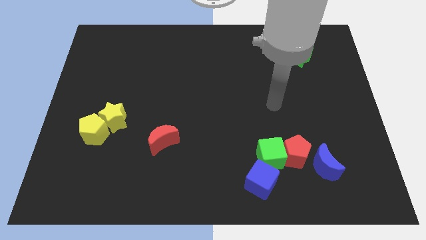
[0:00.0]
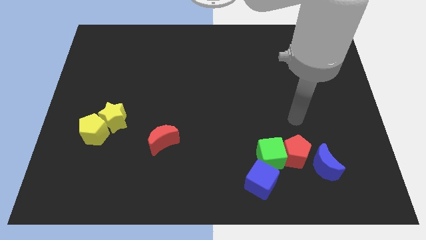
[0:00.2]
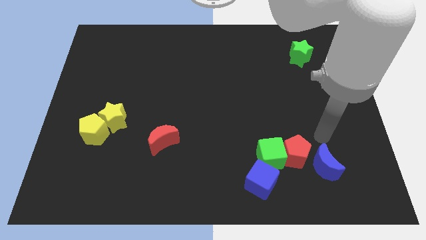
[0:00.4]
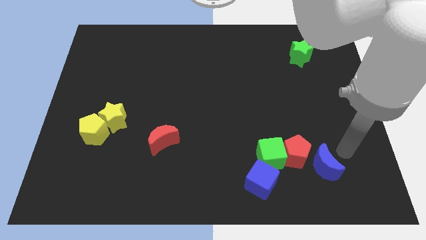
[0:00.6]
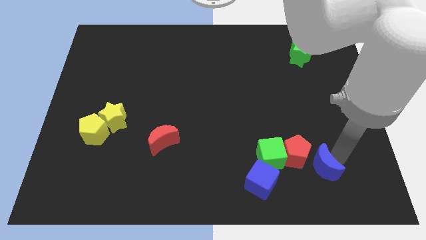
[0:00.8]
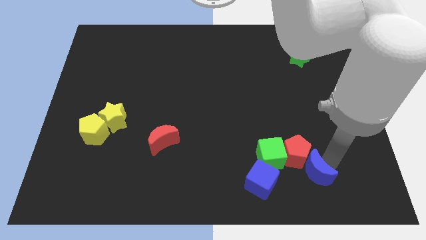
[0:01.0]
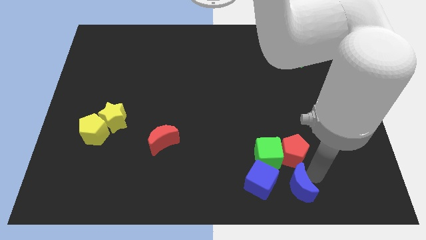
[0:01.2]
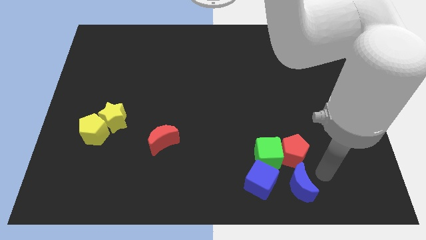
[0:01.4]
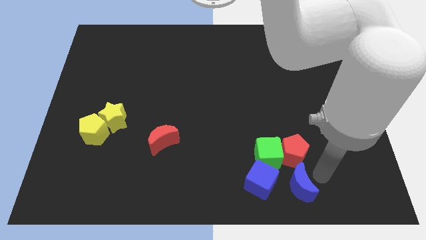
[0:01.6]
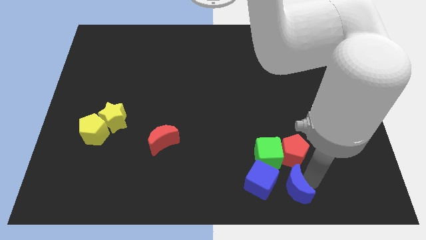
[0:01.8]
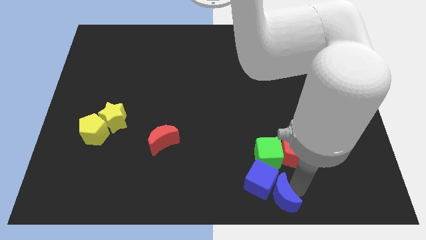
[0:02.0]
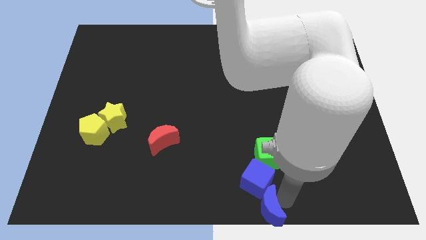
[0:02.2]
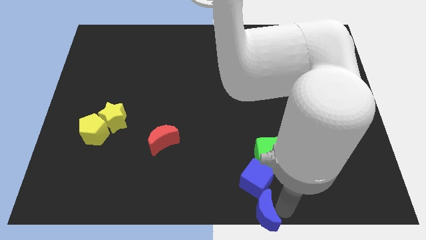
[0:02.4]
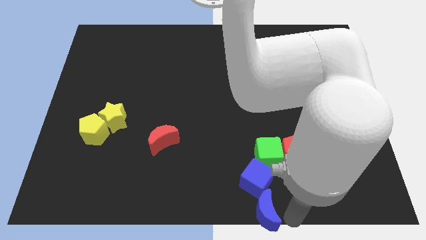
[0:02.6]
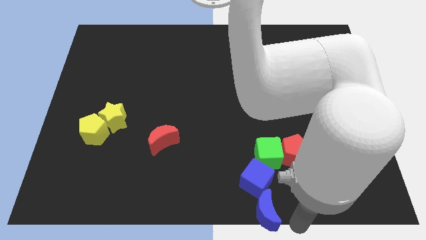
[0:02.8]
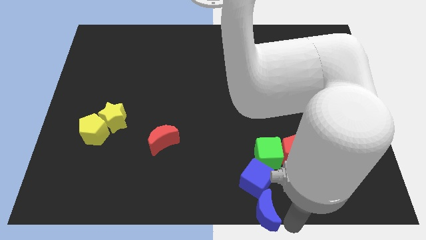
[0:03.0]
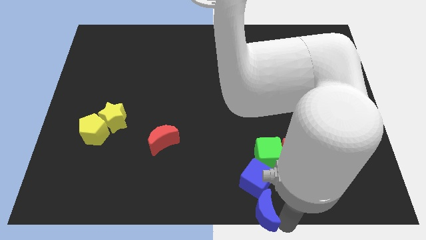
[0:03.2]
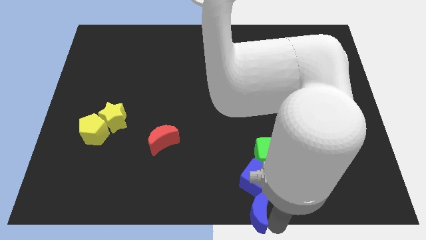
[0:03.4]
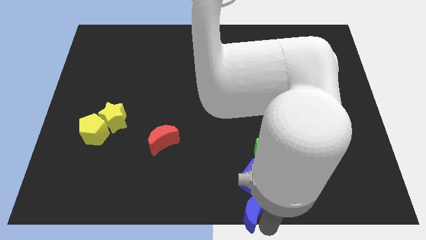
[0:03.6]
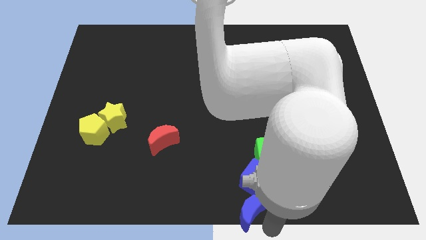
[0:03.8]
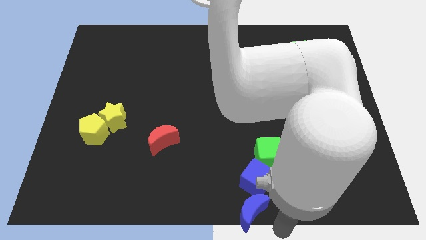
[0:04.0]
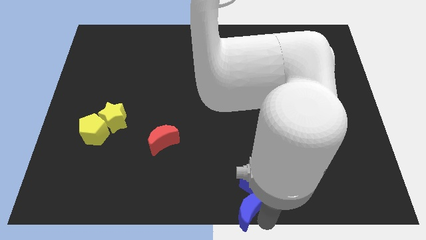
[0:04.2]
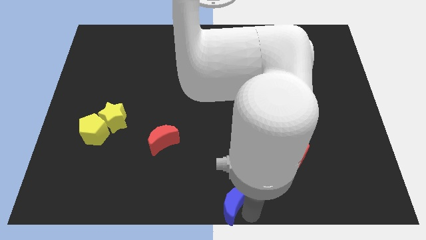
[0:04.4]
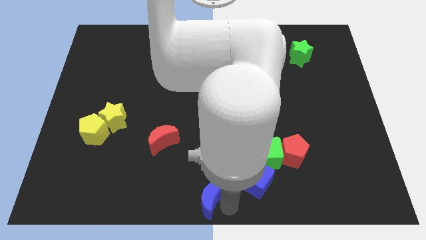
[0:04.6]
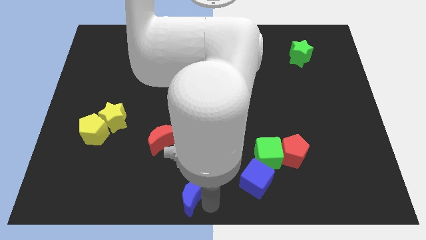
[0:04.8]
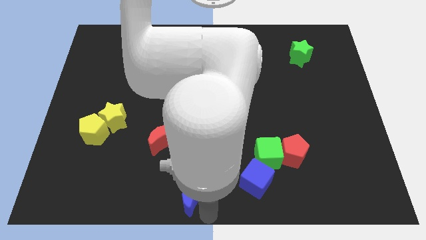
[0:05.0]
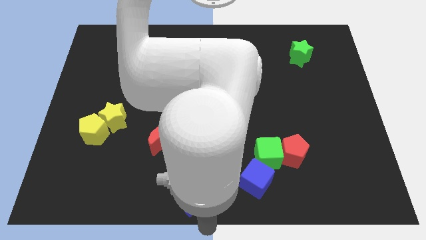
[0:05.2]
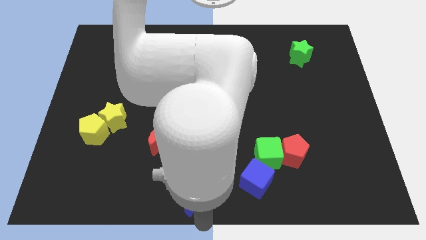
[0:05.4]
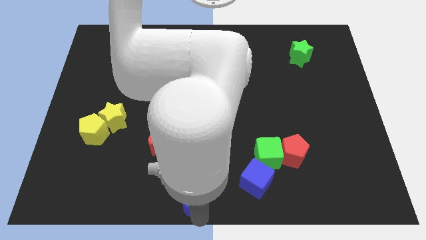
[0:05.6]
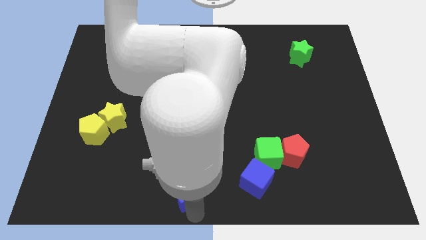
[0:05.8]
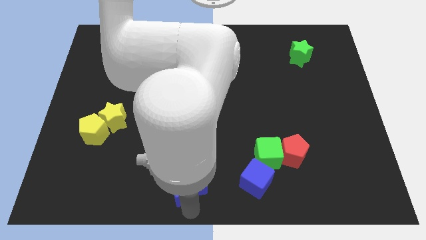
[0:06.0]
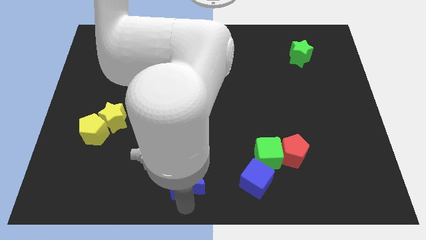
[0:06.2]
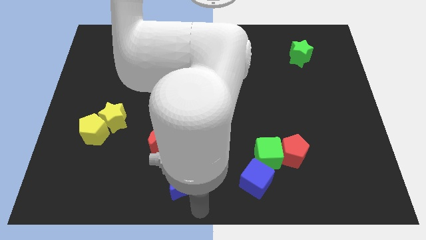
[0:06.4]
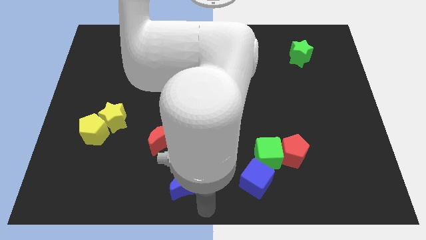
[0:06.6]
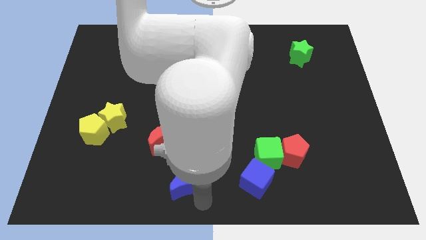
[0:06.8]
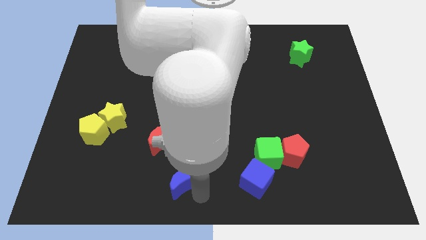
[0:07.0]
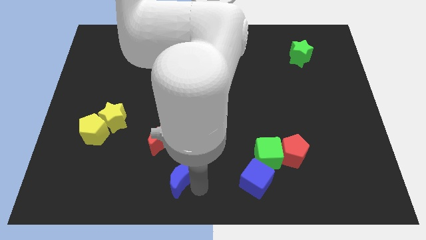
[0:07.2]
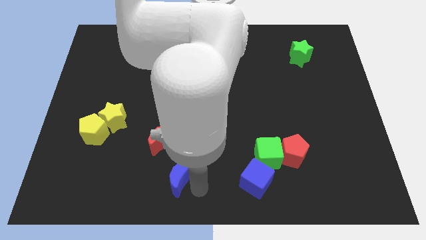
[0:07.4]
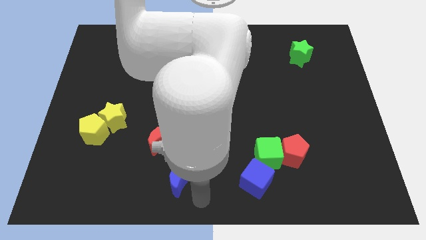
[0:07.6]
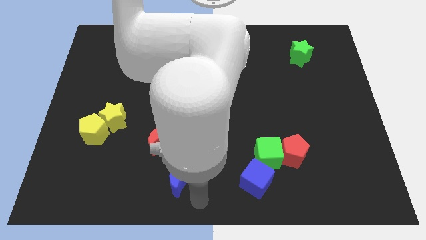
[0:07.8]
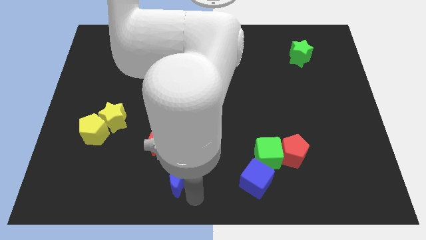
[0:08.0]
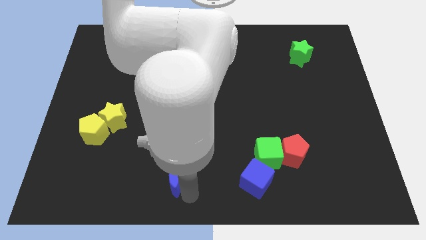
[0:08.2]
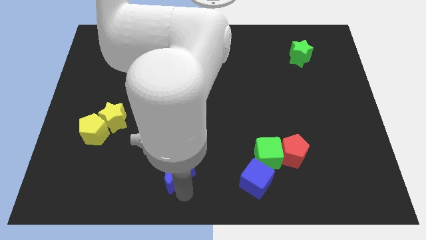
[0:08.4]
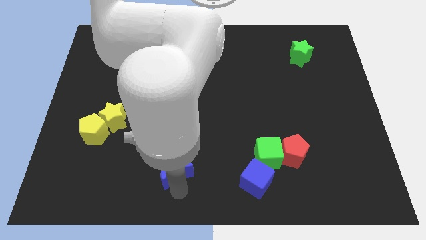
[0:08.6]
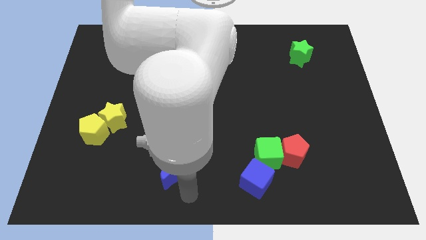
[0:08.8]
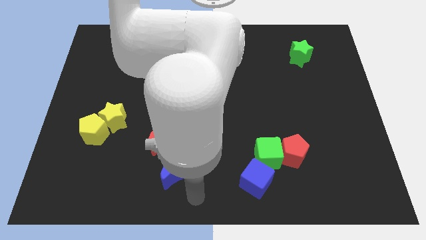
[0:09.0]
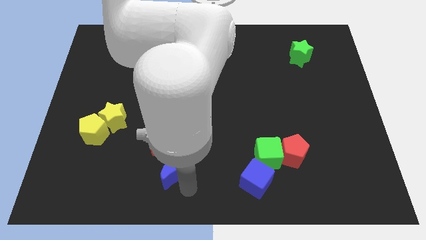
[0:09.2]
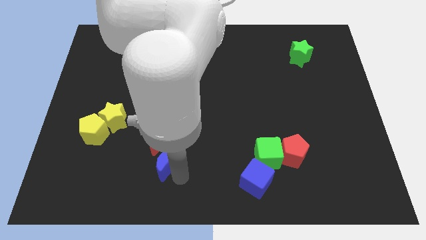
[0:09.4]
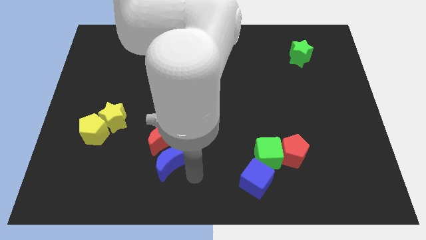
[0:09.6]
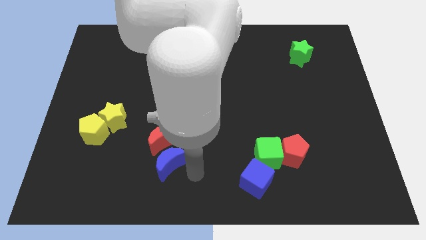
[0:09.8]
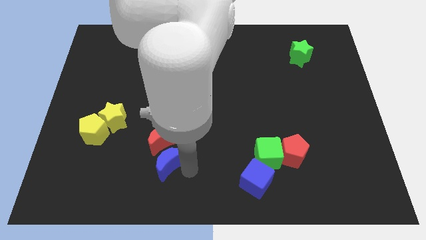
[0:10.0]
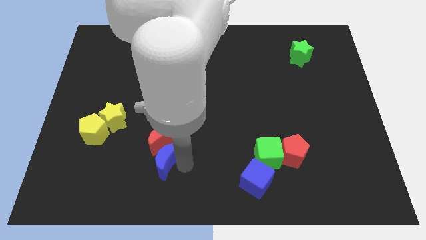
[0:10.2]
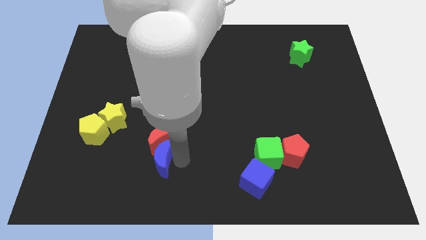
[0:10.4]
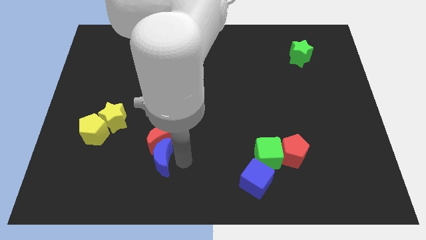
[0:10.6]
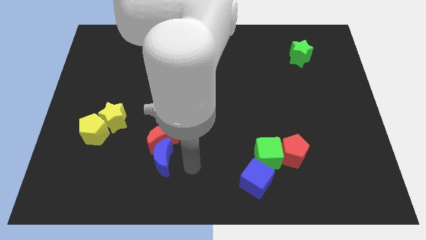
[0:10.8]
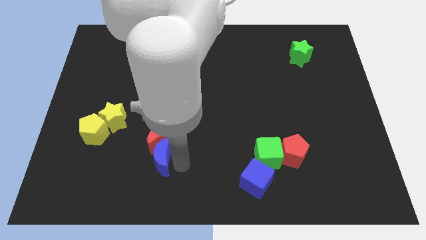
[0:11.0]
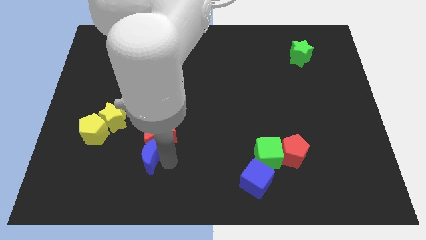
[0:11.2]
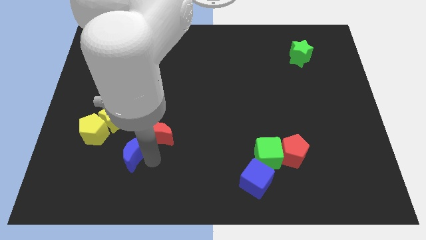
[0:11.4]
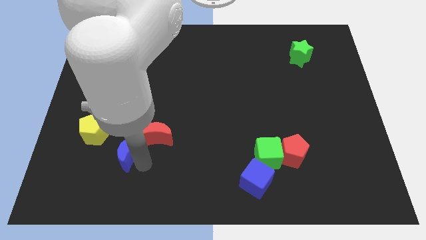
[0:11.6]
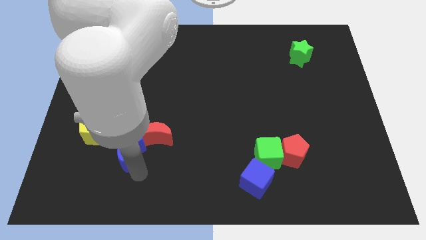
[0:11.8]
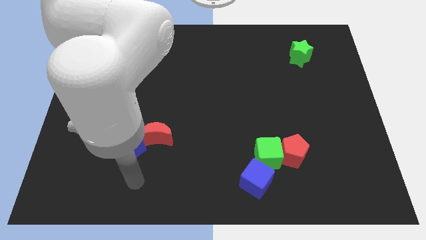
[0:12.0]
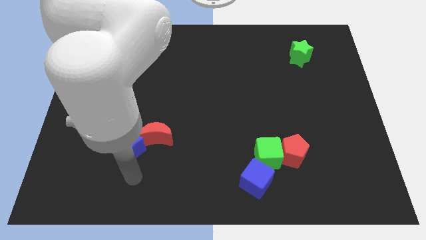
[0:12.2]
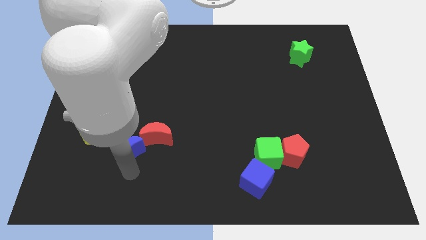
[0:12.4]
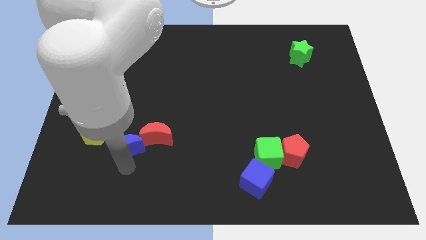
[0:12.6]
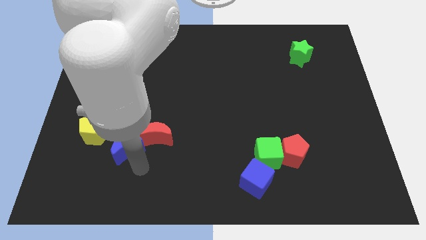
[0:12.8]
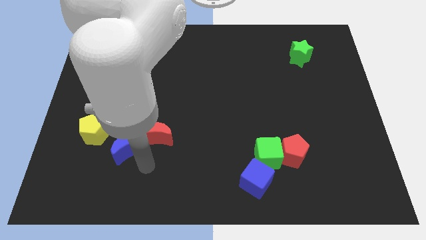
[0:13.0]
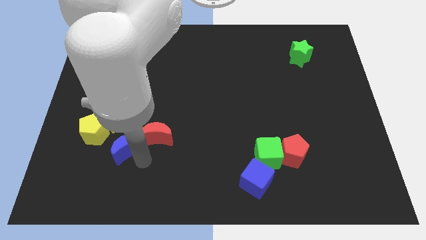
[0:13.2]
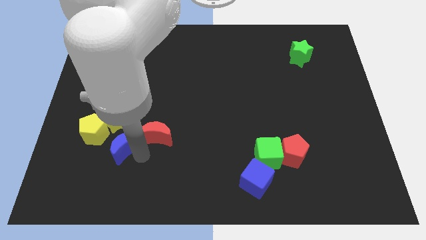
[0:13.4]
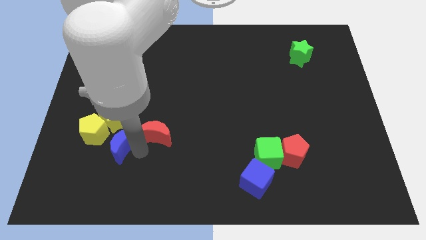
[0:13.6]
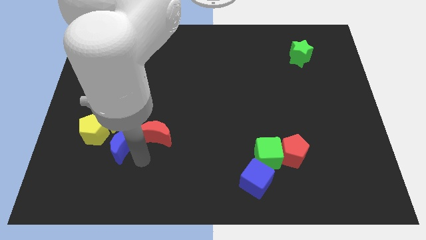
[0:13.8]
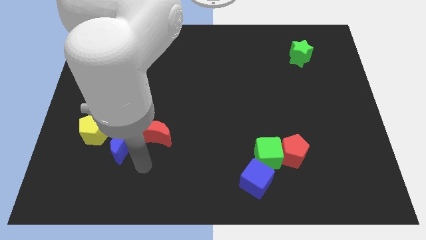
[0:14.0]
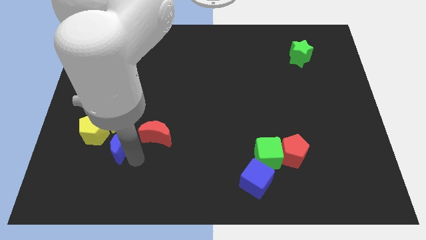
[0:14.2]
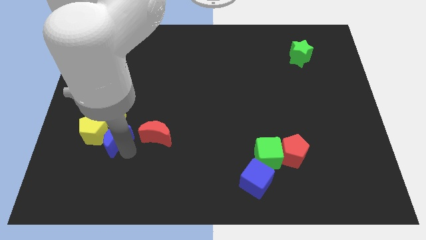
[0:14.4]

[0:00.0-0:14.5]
move the blue moon towards the yellow pentagon
